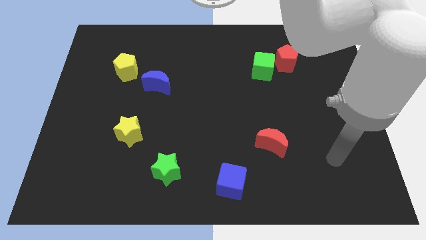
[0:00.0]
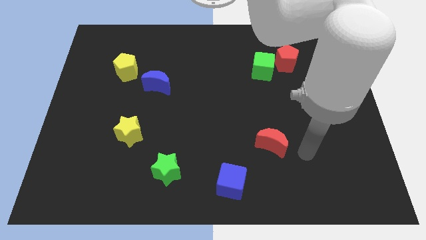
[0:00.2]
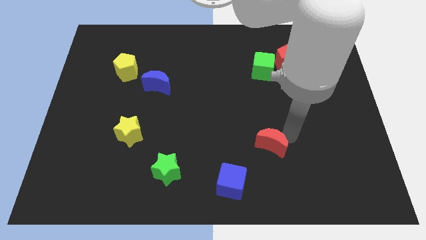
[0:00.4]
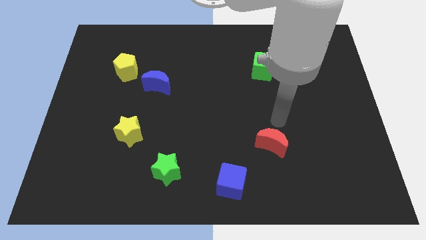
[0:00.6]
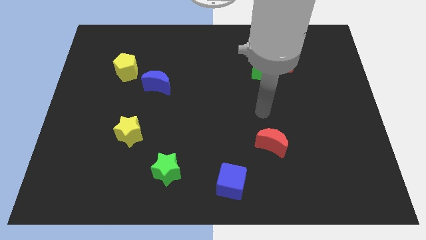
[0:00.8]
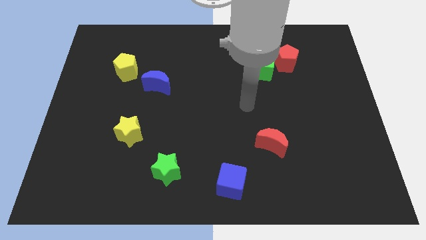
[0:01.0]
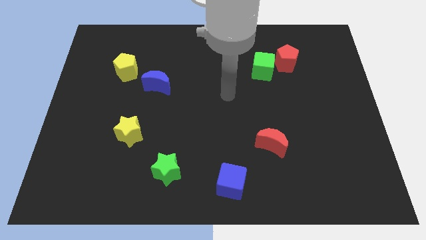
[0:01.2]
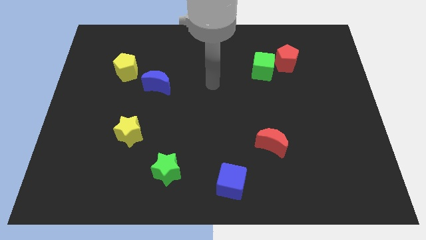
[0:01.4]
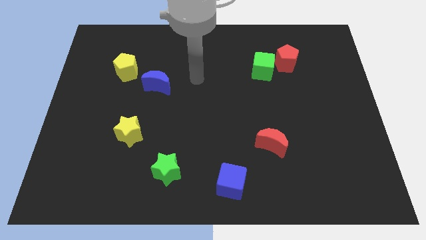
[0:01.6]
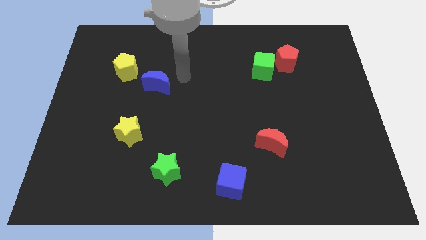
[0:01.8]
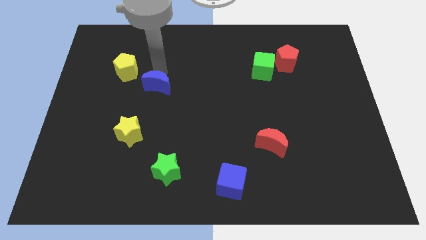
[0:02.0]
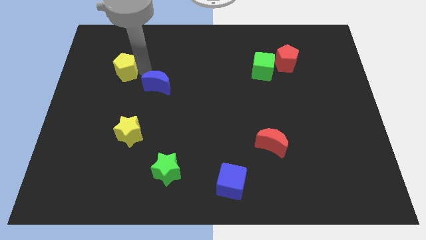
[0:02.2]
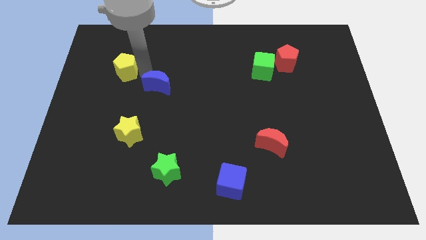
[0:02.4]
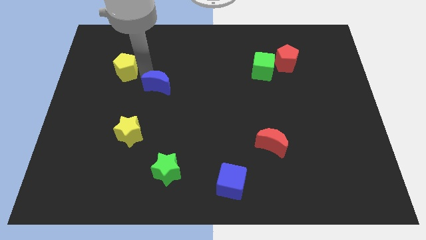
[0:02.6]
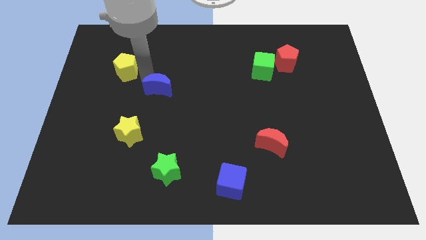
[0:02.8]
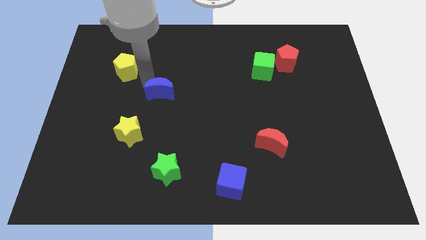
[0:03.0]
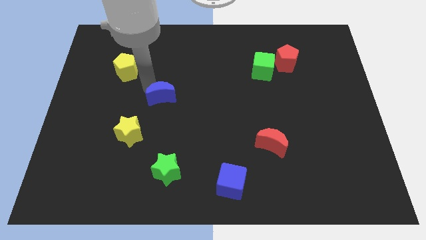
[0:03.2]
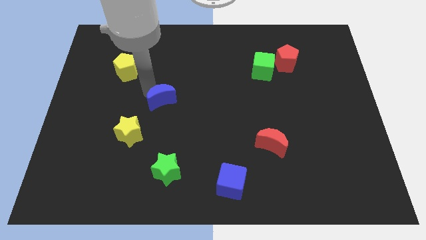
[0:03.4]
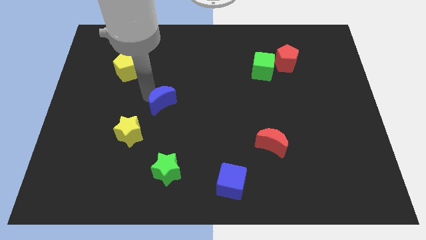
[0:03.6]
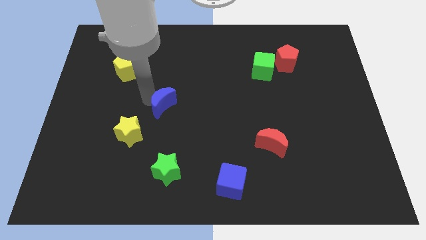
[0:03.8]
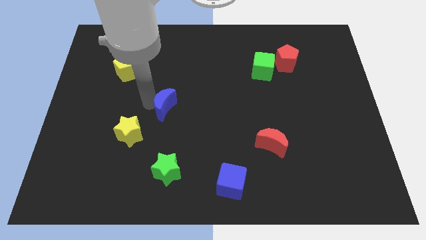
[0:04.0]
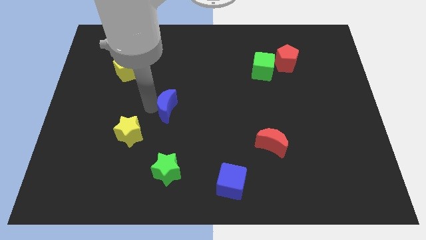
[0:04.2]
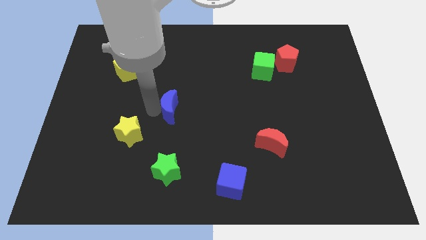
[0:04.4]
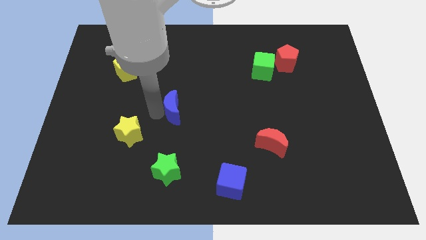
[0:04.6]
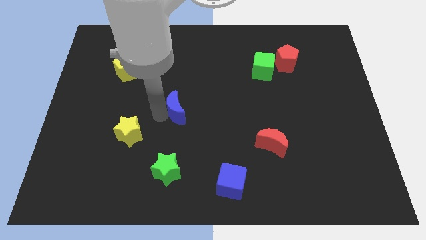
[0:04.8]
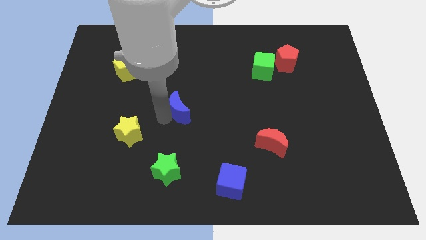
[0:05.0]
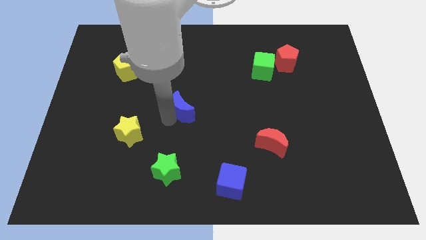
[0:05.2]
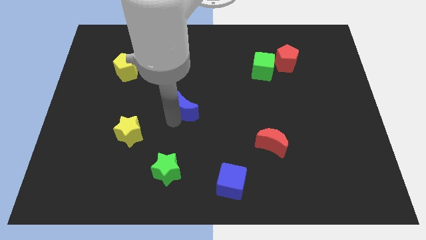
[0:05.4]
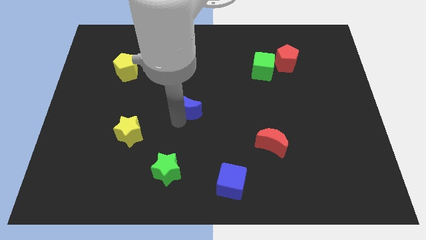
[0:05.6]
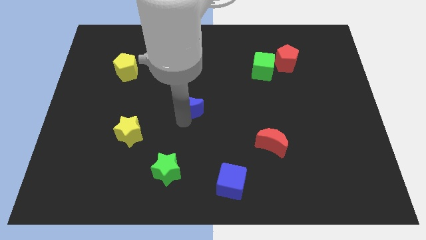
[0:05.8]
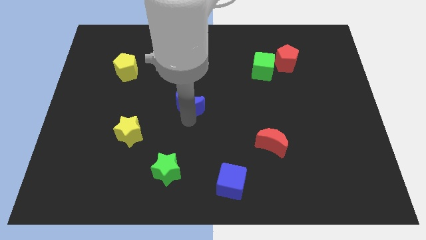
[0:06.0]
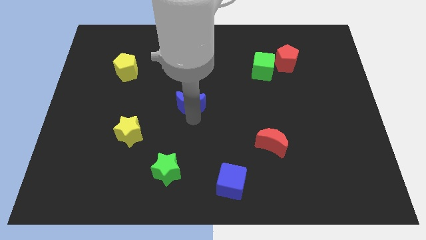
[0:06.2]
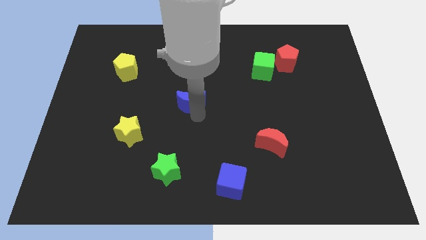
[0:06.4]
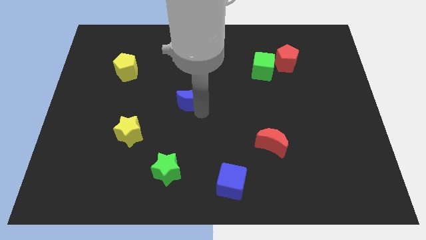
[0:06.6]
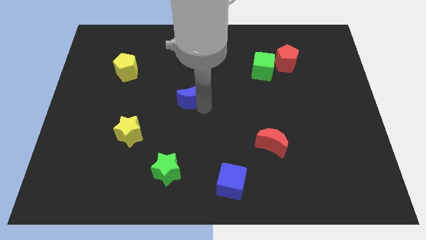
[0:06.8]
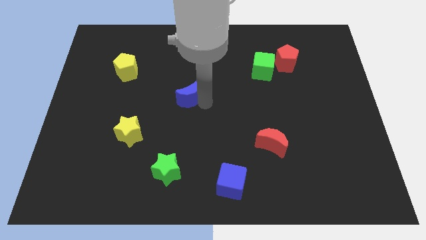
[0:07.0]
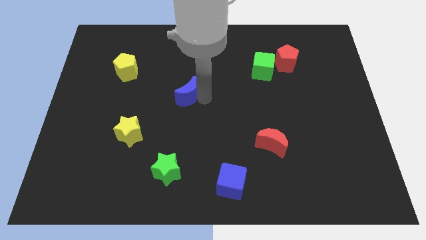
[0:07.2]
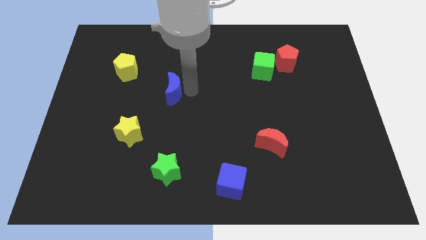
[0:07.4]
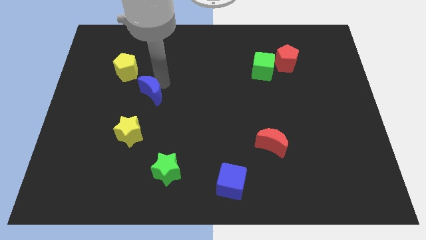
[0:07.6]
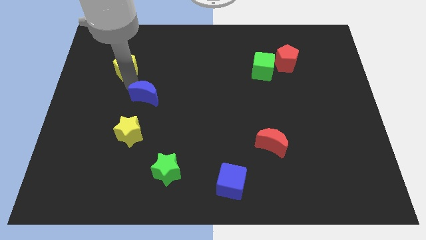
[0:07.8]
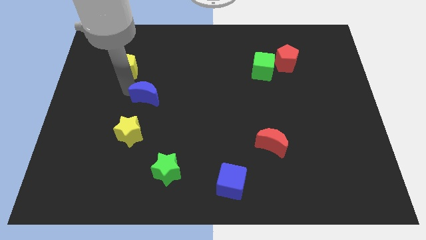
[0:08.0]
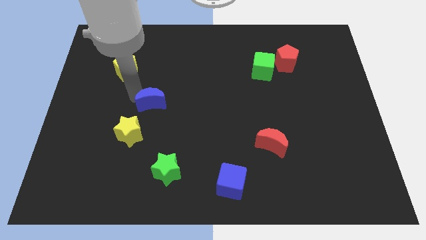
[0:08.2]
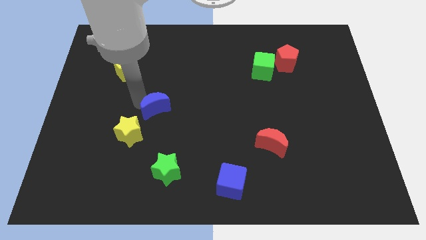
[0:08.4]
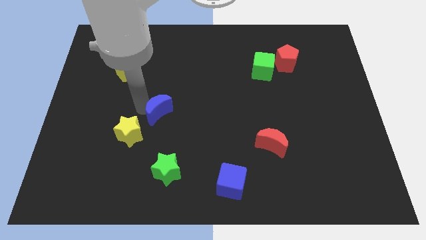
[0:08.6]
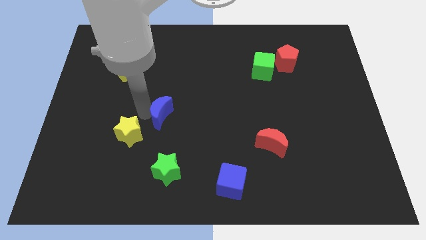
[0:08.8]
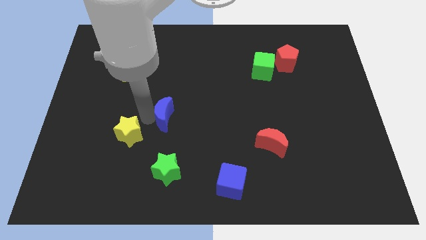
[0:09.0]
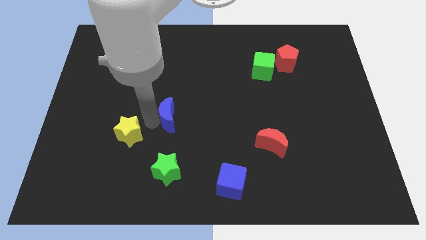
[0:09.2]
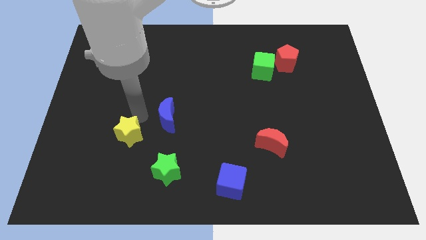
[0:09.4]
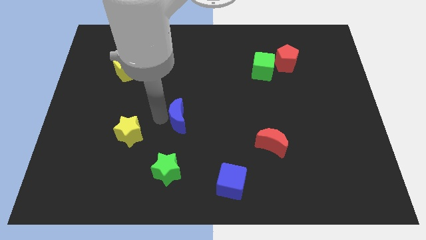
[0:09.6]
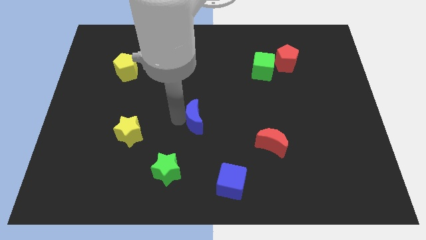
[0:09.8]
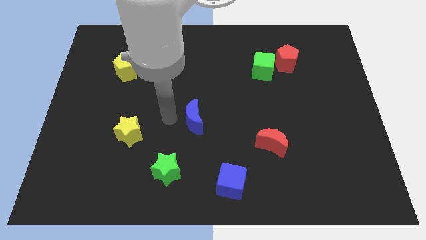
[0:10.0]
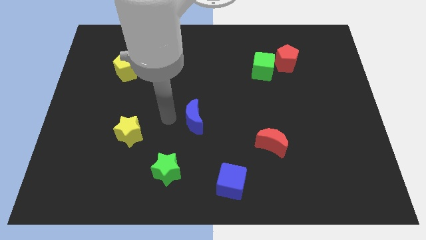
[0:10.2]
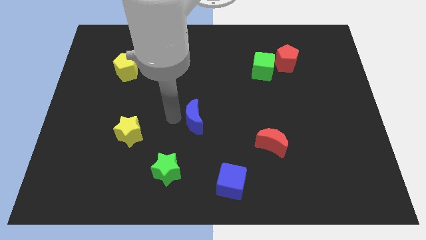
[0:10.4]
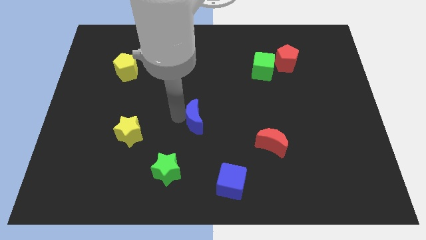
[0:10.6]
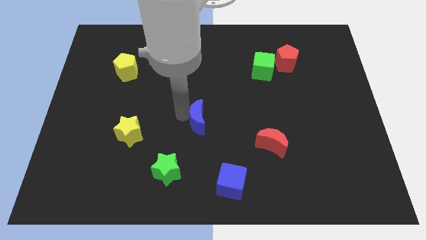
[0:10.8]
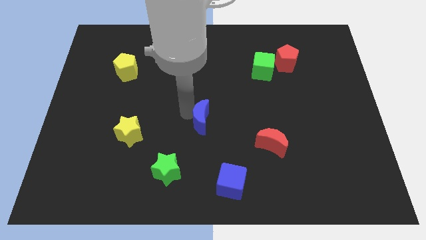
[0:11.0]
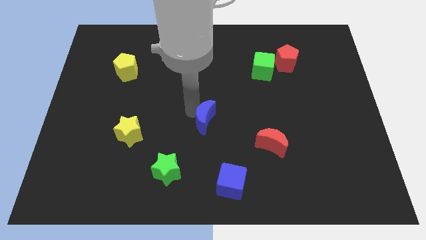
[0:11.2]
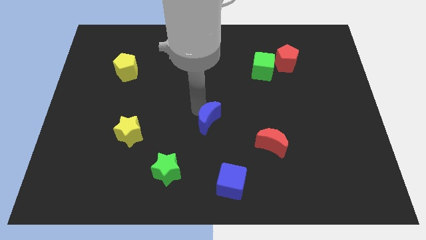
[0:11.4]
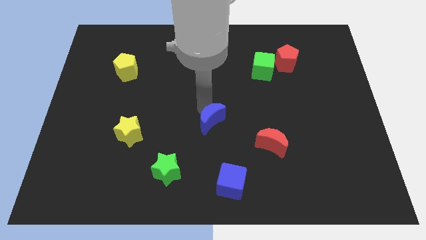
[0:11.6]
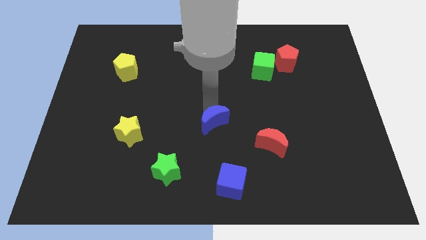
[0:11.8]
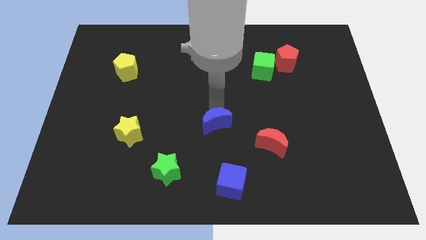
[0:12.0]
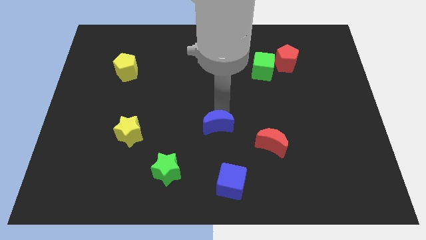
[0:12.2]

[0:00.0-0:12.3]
put the blue moon to the left of the red moon
